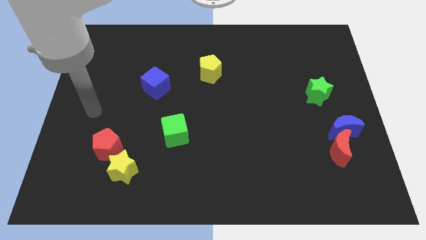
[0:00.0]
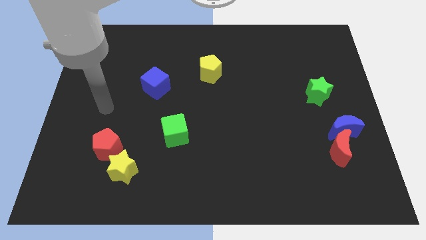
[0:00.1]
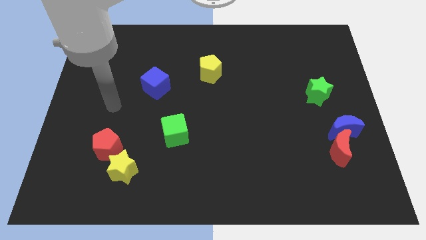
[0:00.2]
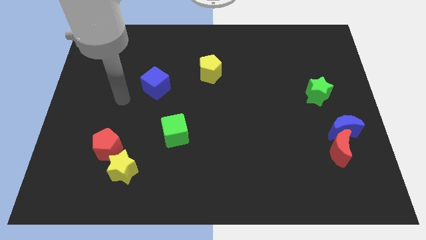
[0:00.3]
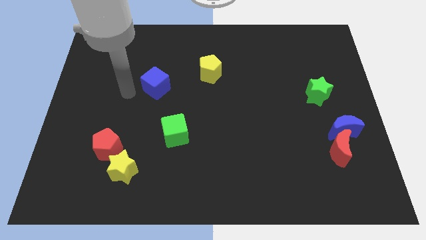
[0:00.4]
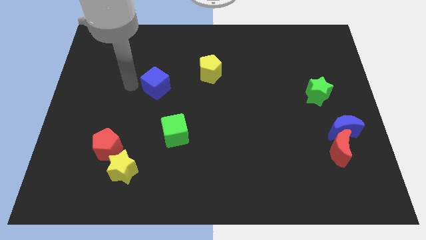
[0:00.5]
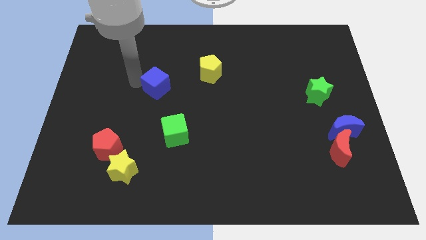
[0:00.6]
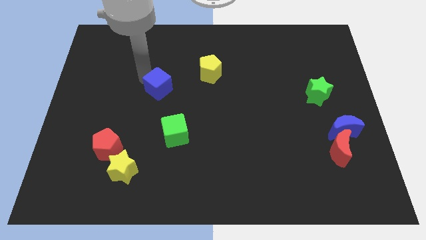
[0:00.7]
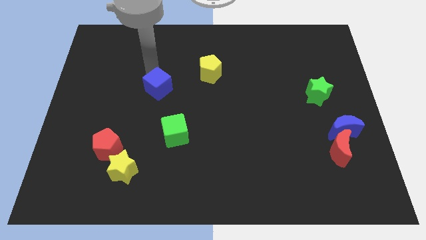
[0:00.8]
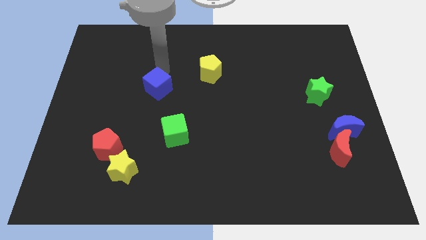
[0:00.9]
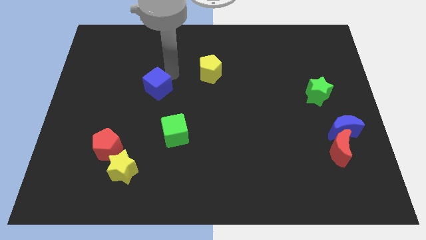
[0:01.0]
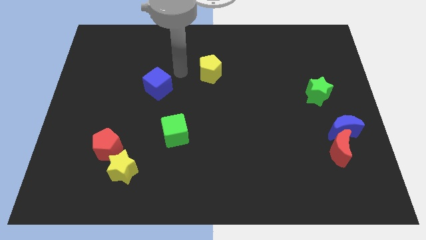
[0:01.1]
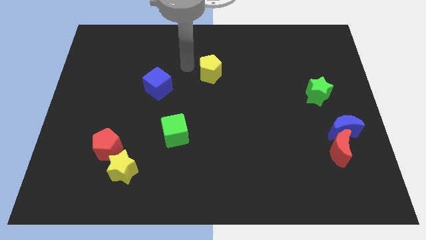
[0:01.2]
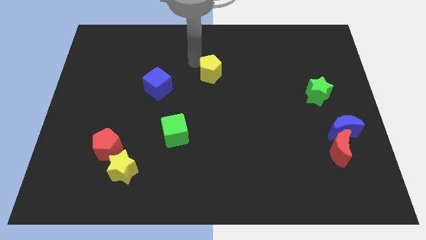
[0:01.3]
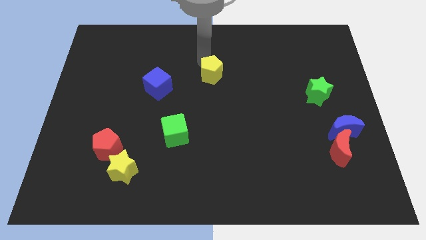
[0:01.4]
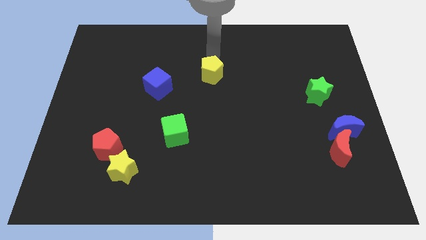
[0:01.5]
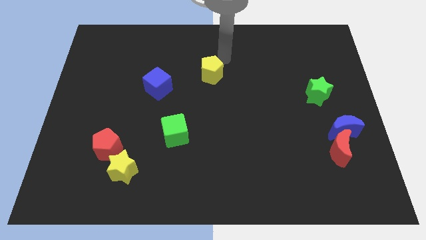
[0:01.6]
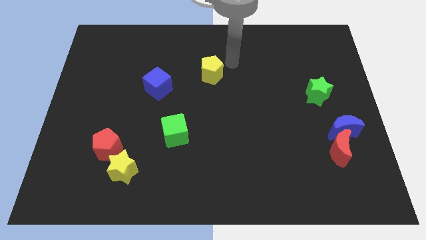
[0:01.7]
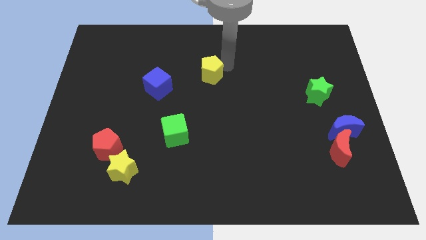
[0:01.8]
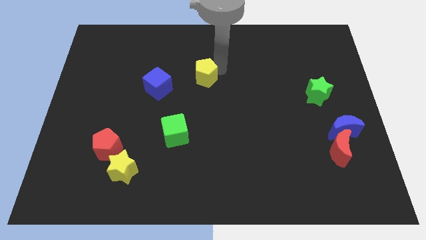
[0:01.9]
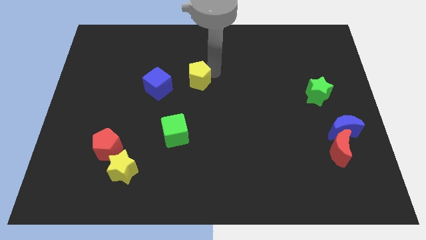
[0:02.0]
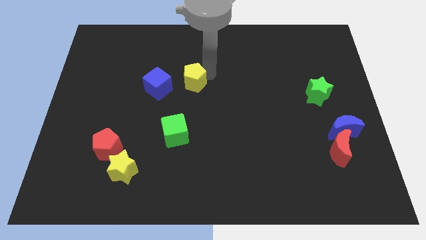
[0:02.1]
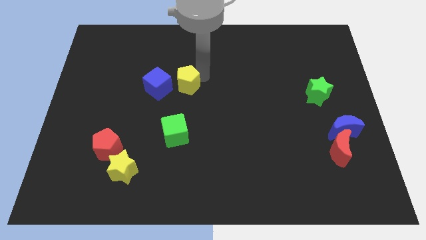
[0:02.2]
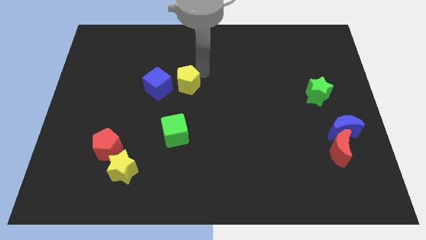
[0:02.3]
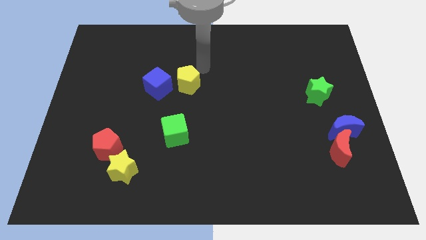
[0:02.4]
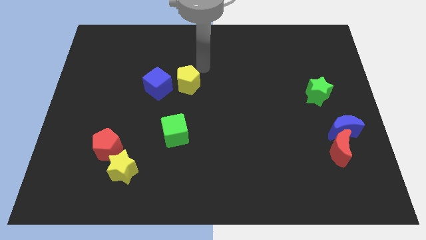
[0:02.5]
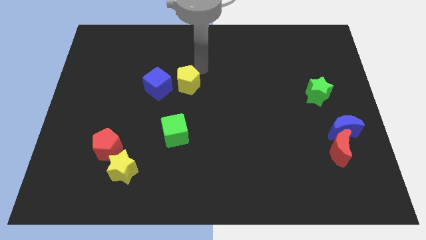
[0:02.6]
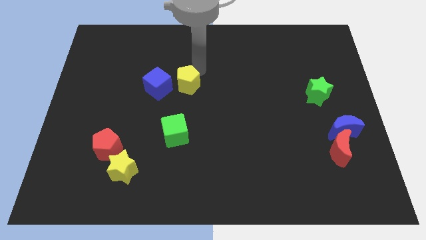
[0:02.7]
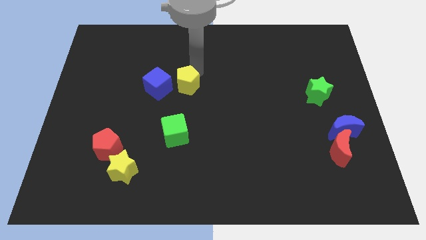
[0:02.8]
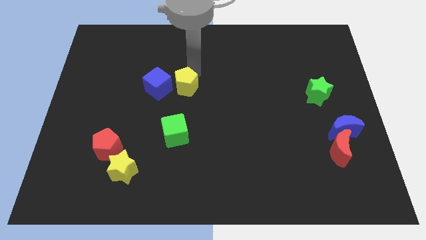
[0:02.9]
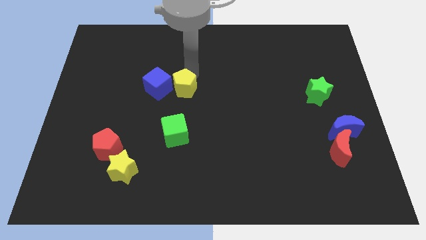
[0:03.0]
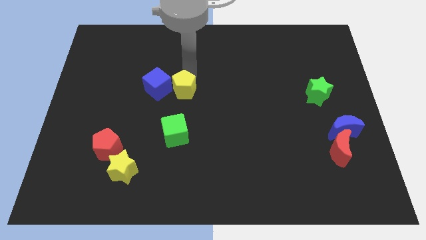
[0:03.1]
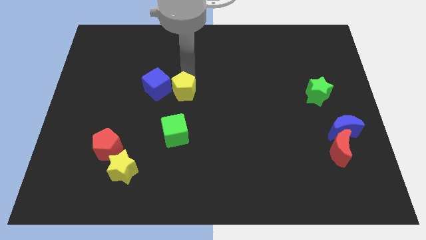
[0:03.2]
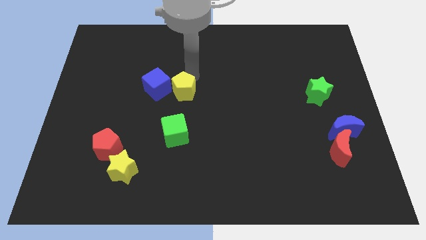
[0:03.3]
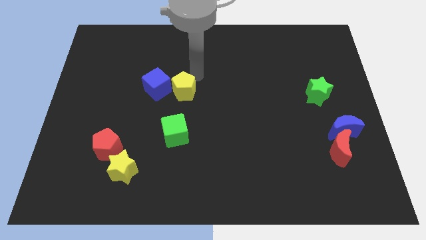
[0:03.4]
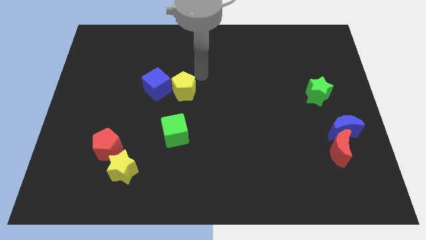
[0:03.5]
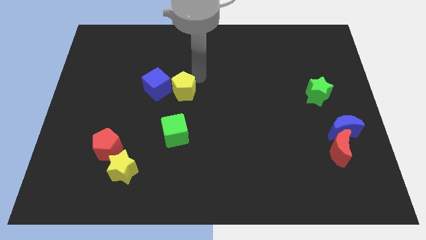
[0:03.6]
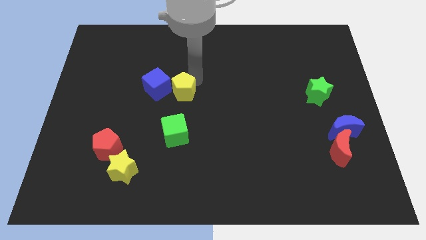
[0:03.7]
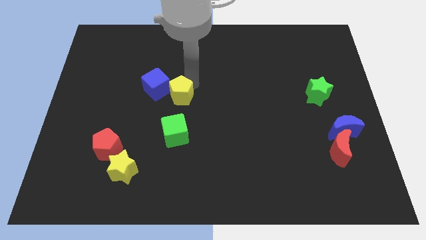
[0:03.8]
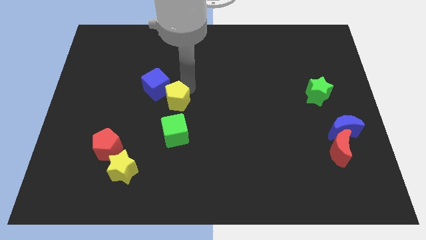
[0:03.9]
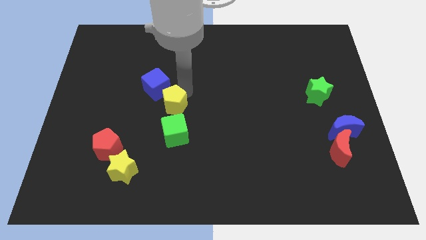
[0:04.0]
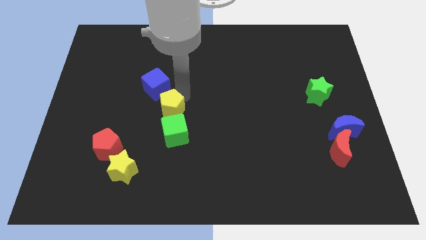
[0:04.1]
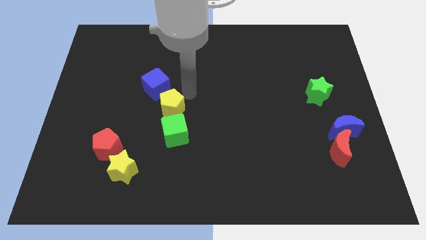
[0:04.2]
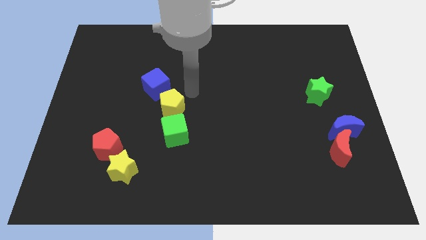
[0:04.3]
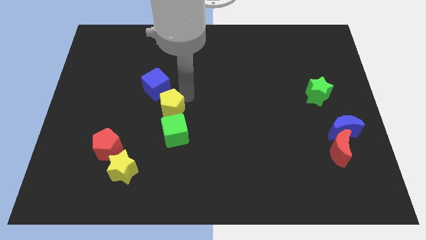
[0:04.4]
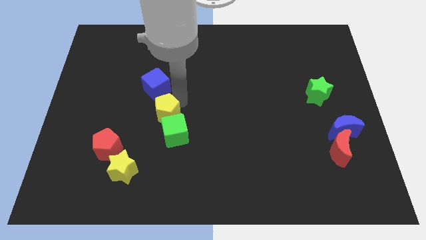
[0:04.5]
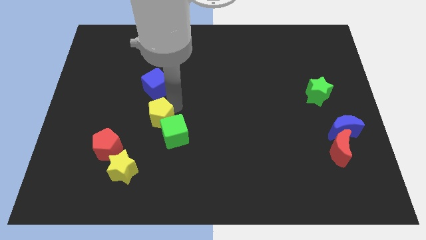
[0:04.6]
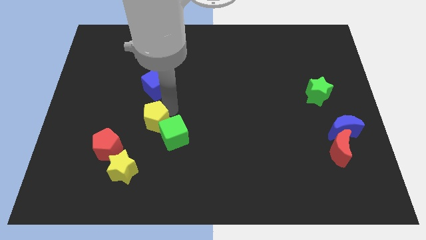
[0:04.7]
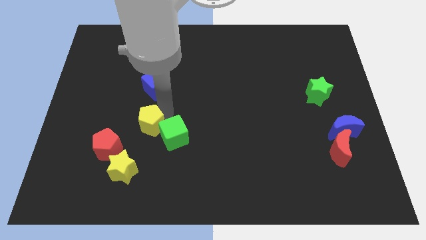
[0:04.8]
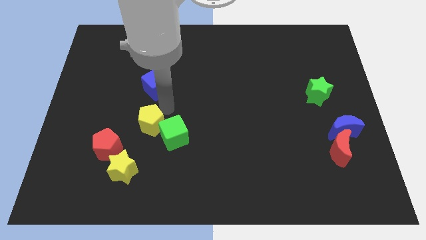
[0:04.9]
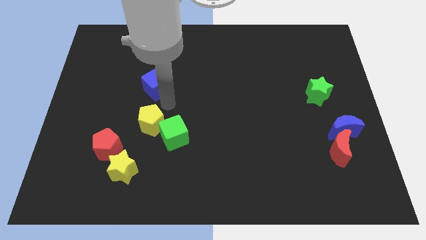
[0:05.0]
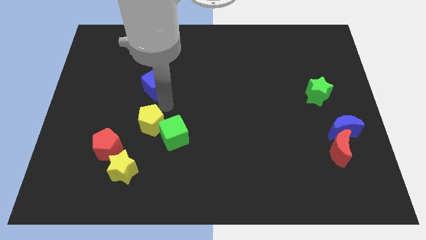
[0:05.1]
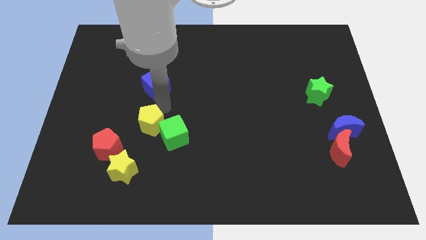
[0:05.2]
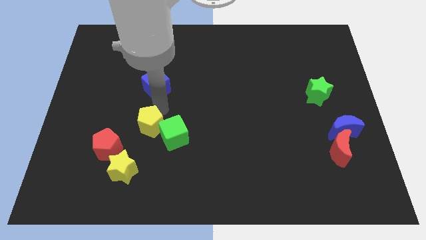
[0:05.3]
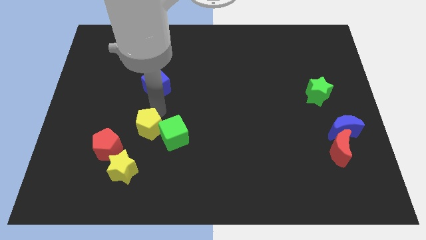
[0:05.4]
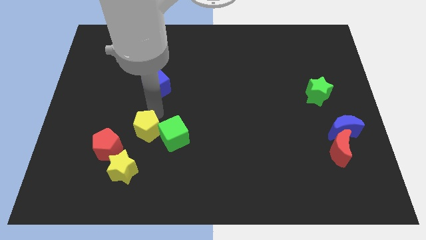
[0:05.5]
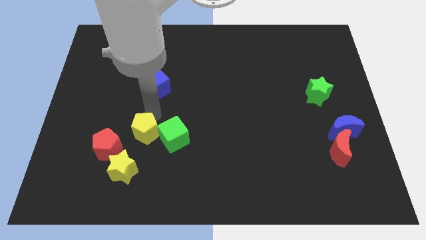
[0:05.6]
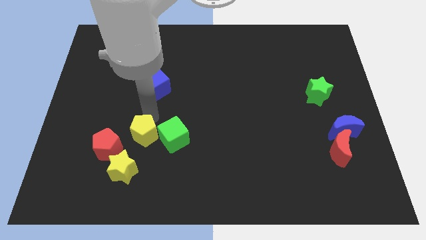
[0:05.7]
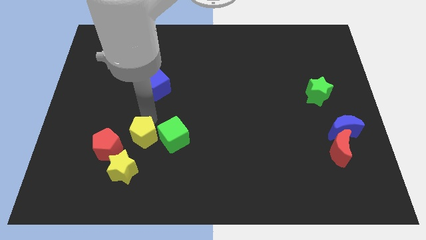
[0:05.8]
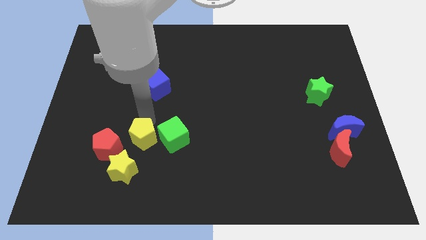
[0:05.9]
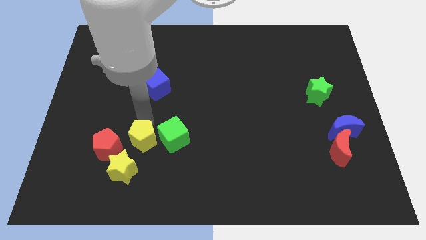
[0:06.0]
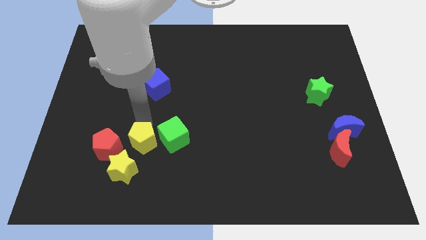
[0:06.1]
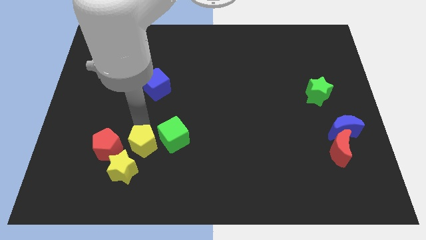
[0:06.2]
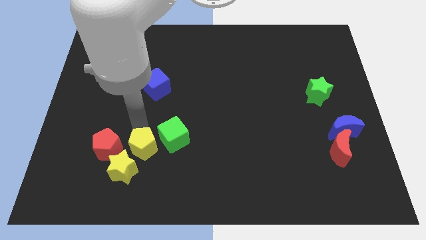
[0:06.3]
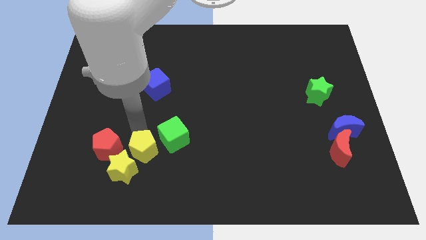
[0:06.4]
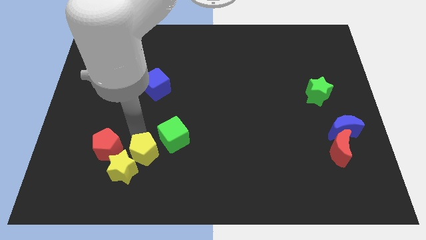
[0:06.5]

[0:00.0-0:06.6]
push the yellow pentagon close to the yellow star
